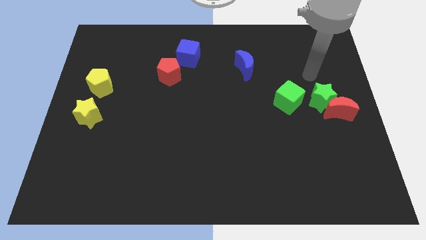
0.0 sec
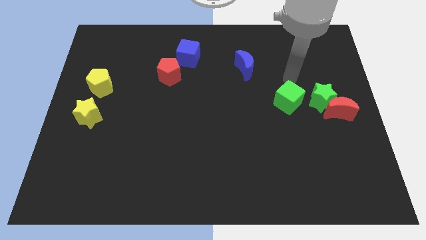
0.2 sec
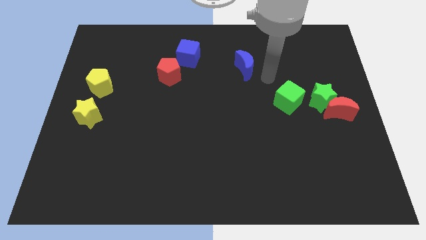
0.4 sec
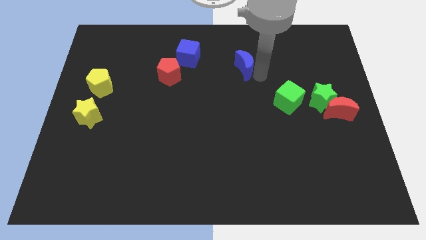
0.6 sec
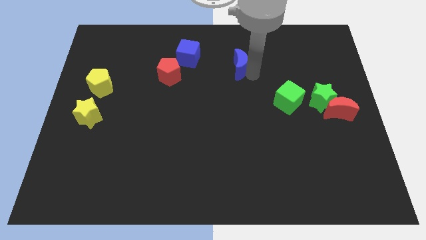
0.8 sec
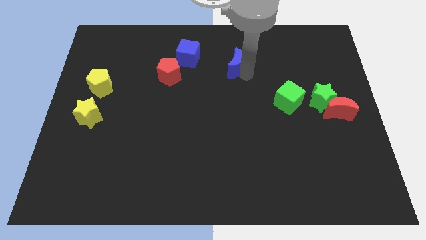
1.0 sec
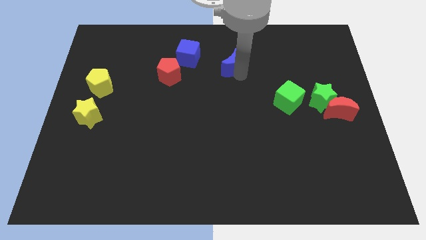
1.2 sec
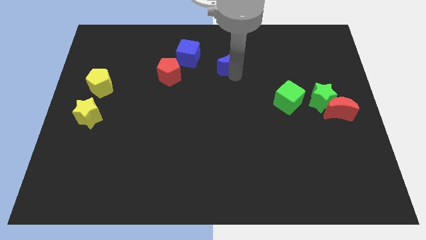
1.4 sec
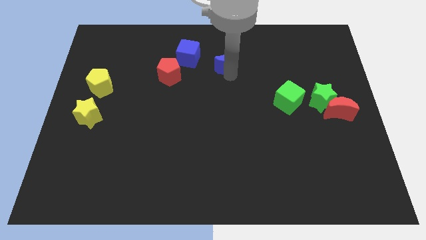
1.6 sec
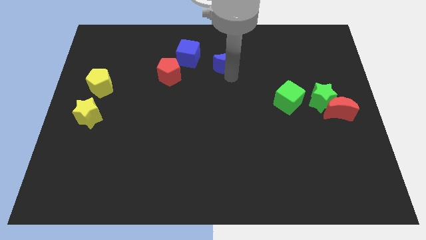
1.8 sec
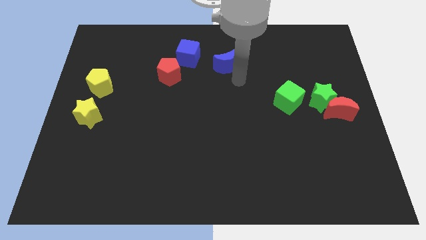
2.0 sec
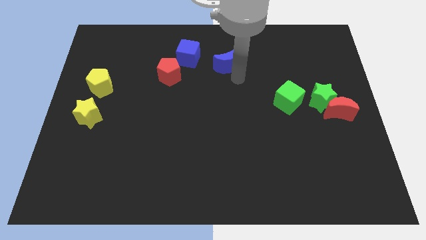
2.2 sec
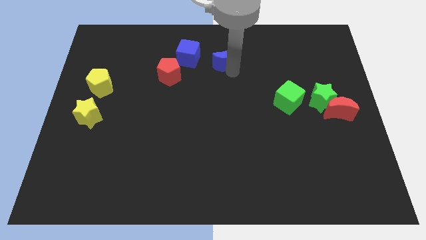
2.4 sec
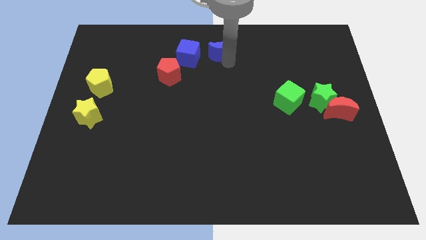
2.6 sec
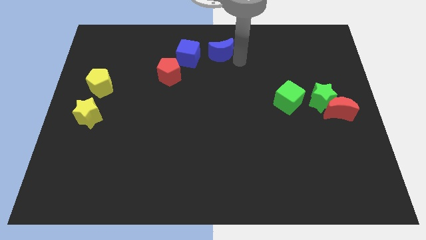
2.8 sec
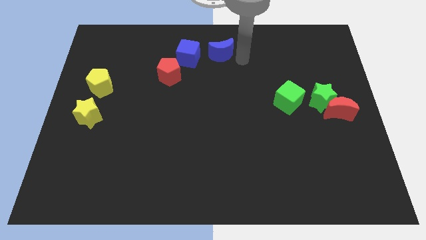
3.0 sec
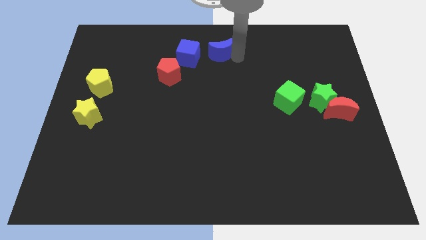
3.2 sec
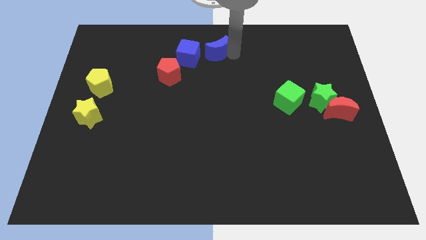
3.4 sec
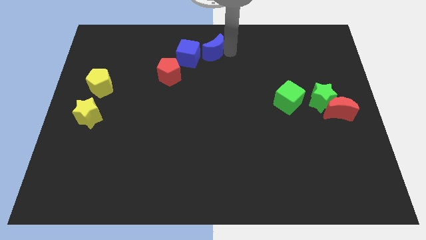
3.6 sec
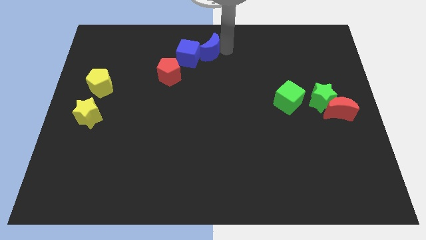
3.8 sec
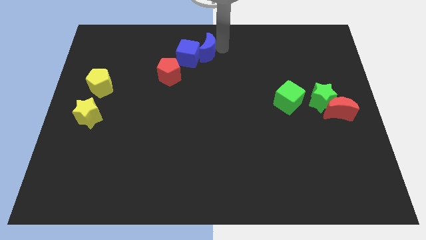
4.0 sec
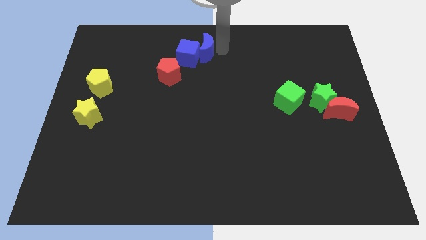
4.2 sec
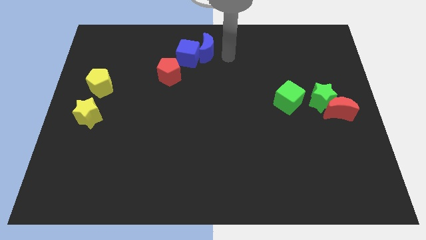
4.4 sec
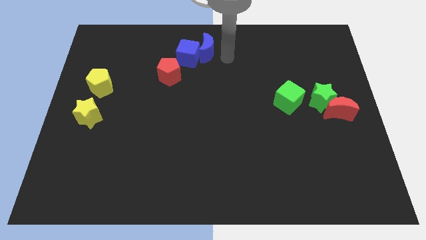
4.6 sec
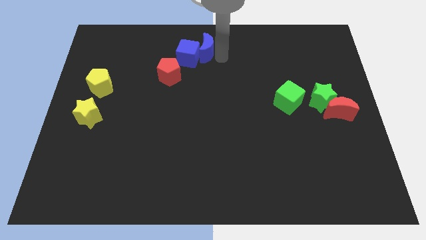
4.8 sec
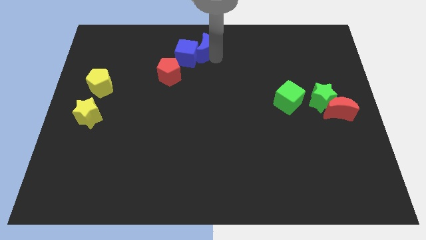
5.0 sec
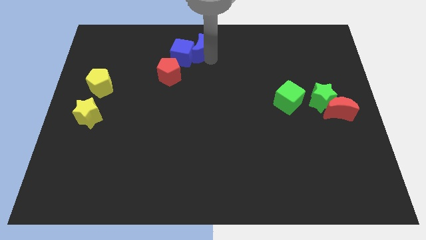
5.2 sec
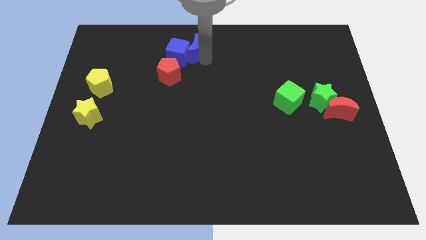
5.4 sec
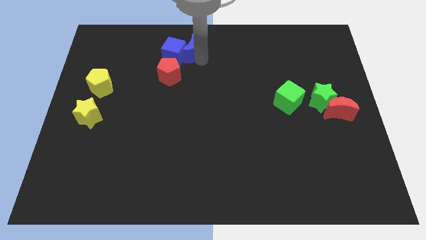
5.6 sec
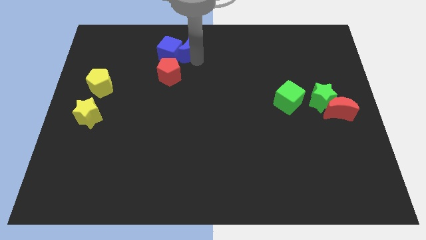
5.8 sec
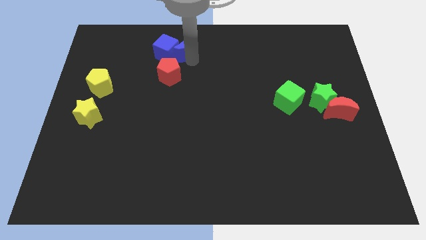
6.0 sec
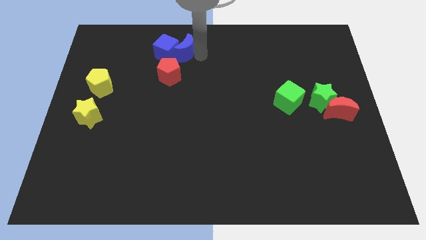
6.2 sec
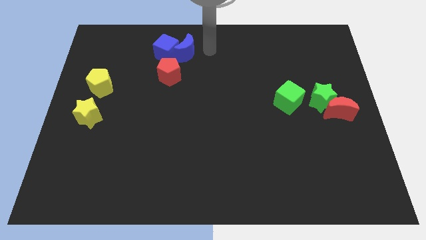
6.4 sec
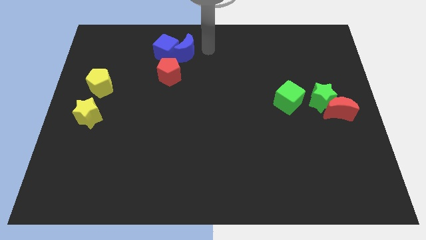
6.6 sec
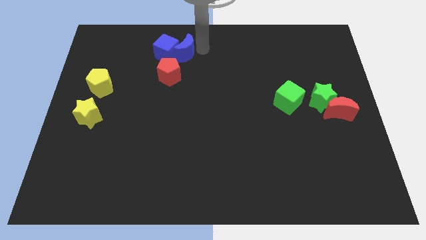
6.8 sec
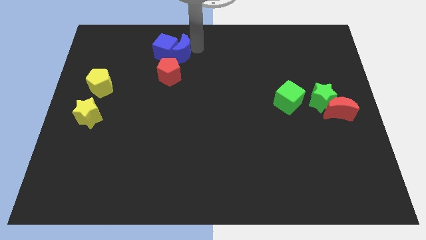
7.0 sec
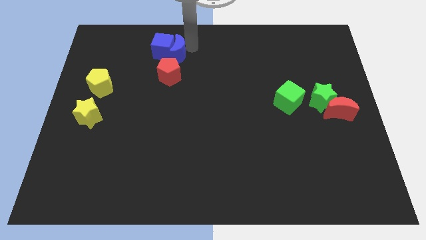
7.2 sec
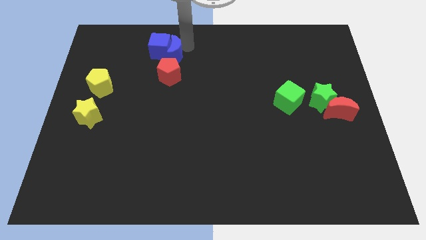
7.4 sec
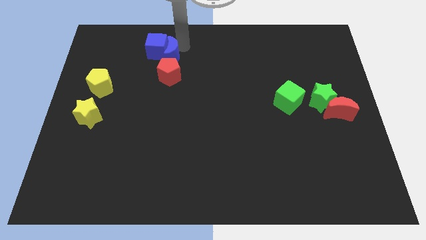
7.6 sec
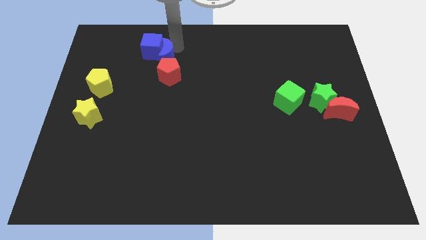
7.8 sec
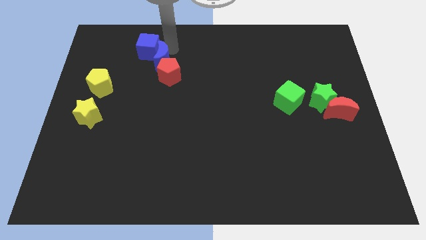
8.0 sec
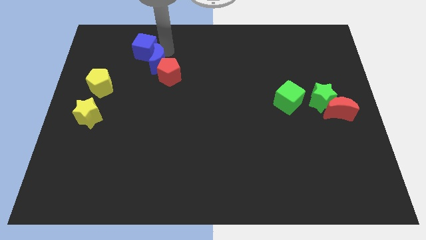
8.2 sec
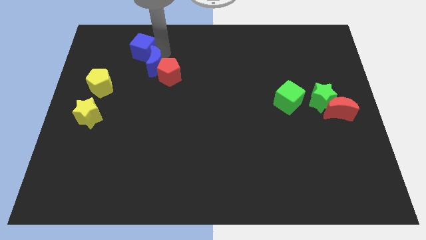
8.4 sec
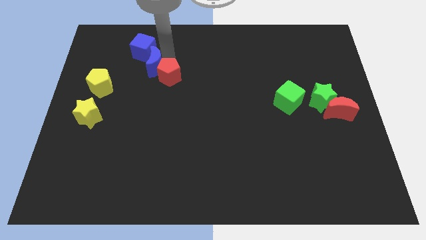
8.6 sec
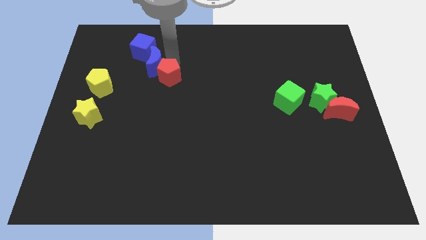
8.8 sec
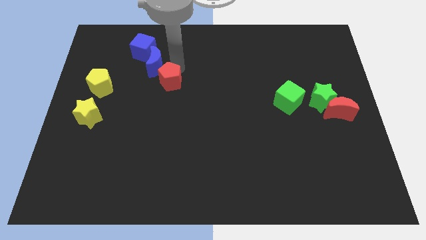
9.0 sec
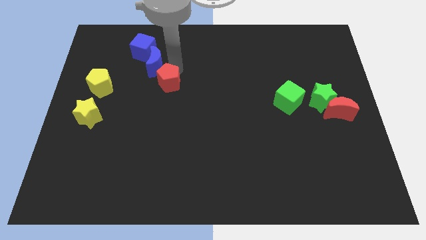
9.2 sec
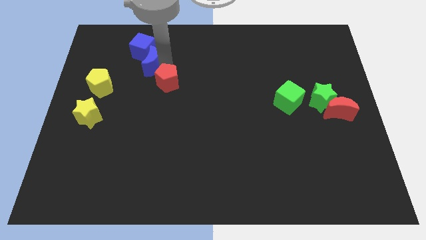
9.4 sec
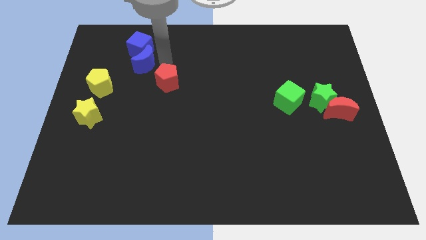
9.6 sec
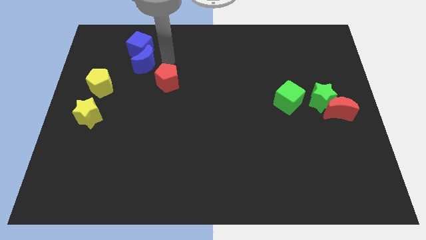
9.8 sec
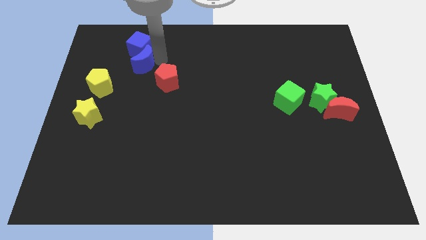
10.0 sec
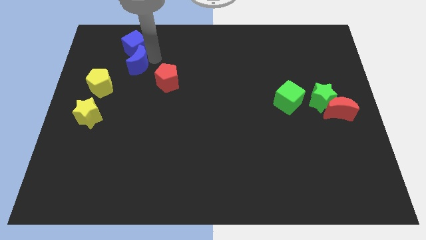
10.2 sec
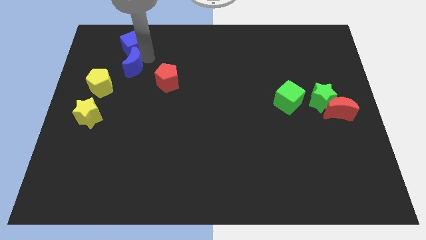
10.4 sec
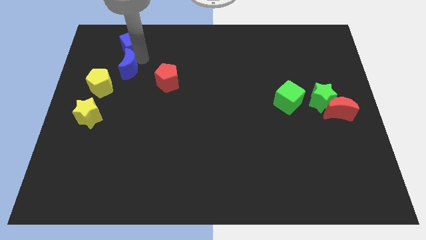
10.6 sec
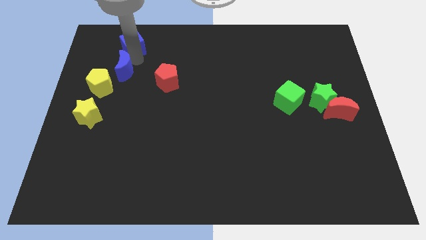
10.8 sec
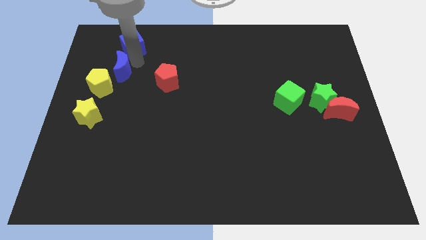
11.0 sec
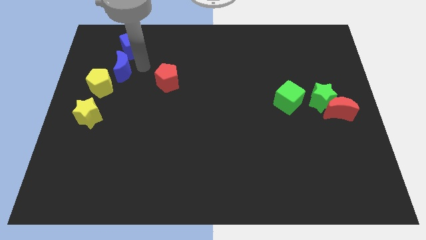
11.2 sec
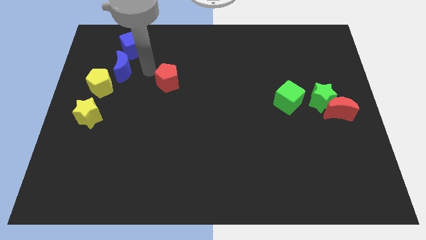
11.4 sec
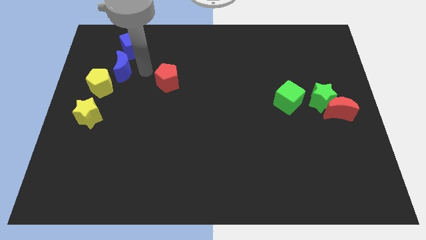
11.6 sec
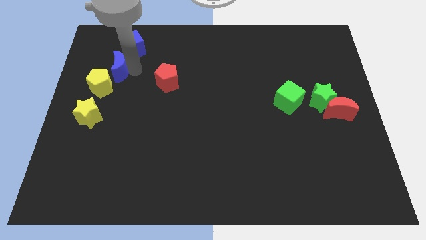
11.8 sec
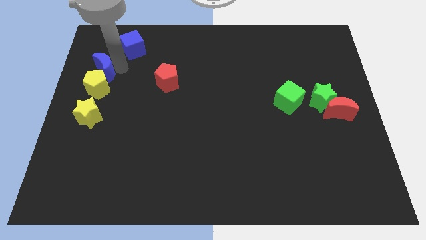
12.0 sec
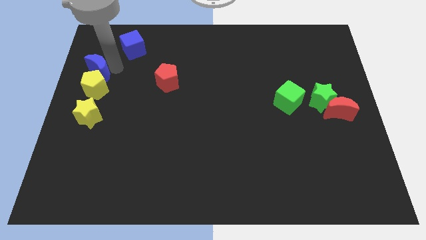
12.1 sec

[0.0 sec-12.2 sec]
slide the blue moon to the center left
